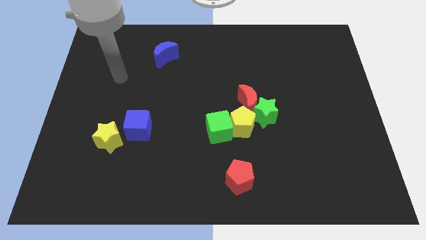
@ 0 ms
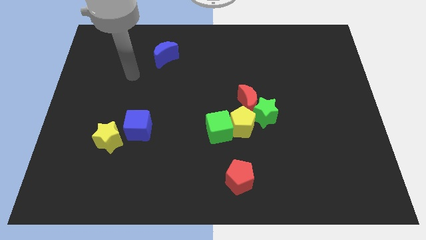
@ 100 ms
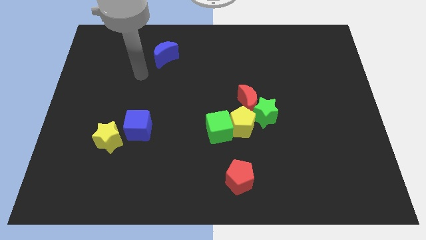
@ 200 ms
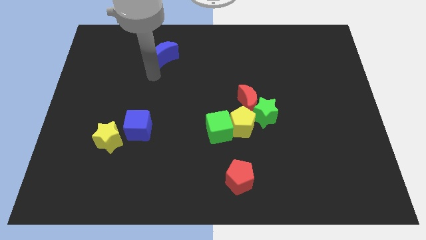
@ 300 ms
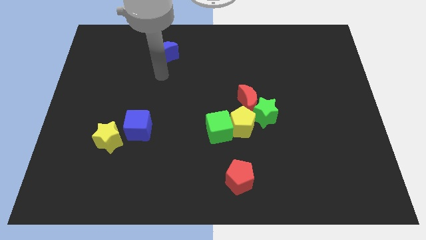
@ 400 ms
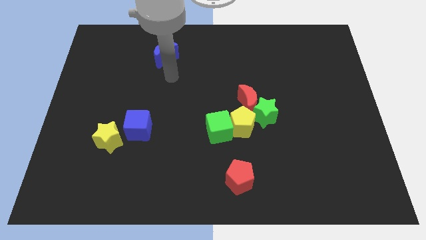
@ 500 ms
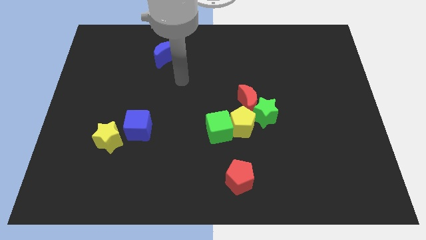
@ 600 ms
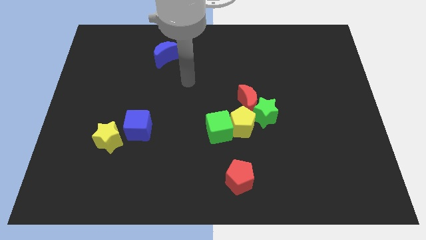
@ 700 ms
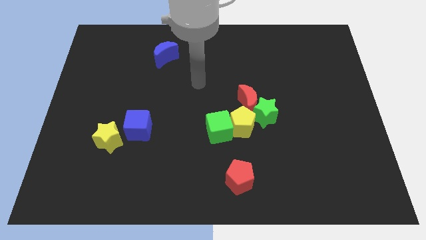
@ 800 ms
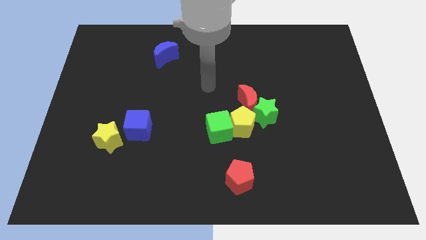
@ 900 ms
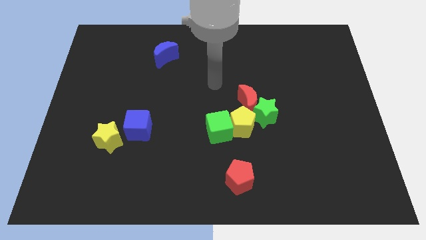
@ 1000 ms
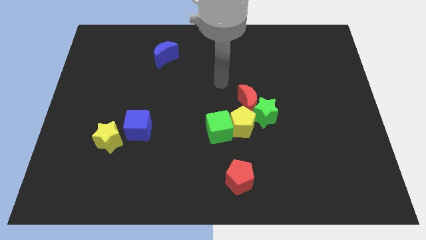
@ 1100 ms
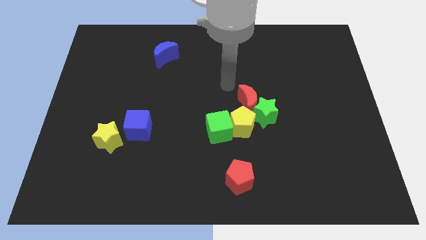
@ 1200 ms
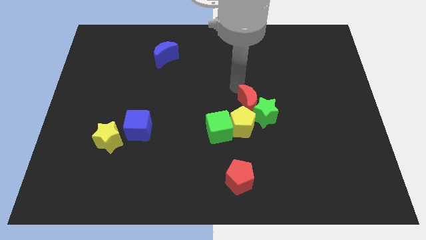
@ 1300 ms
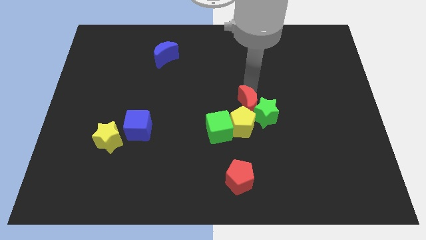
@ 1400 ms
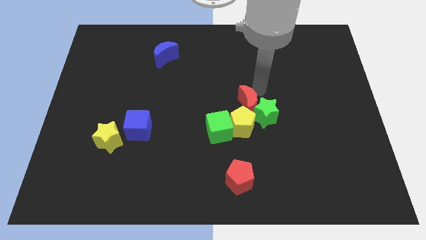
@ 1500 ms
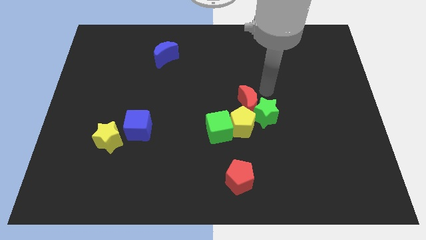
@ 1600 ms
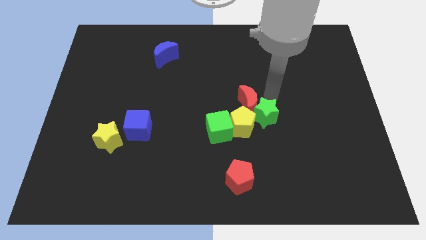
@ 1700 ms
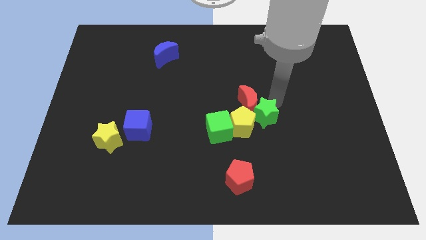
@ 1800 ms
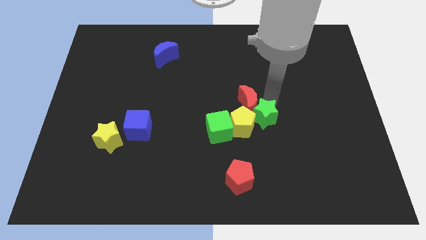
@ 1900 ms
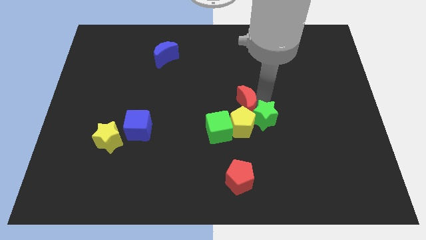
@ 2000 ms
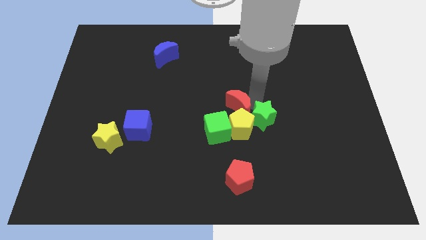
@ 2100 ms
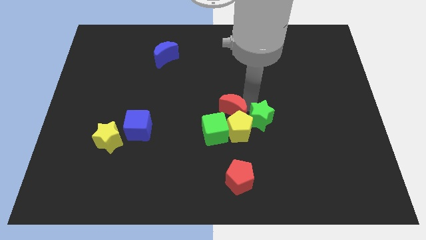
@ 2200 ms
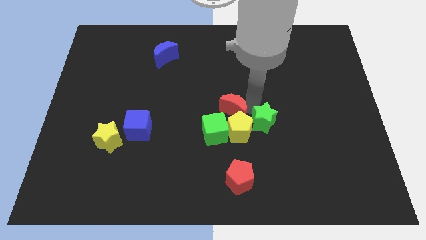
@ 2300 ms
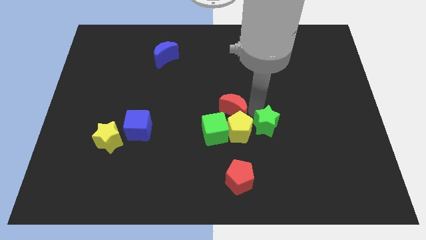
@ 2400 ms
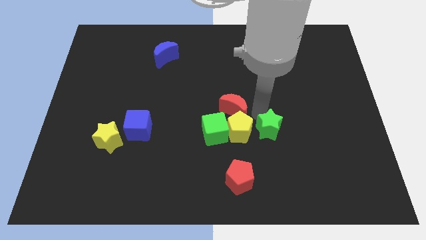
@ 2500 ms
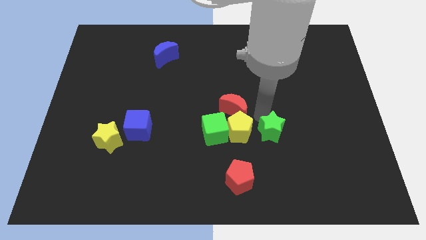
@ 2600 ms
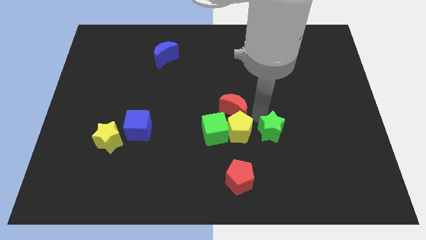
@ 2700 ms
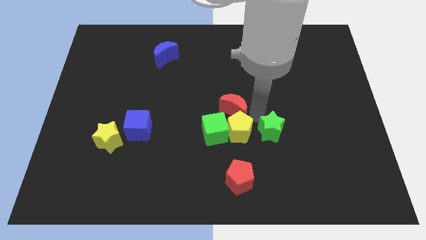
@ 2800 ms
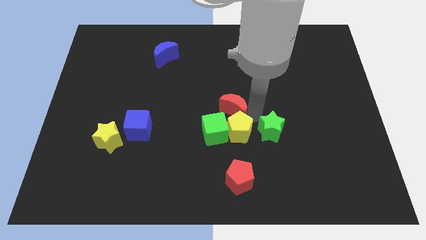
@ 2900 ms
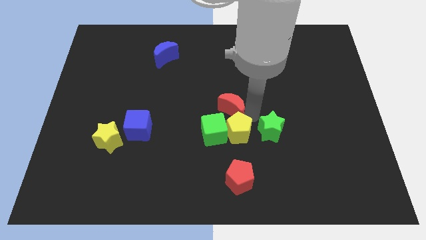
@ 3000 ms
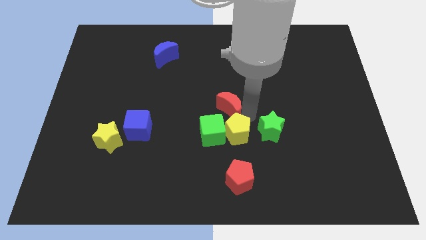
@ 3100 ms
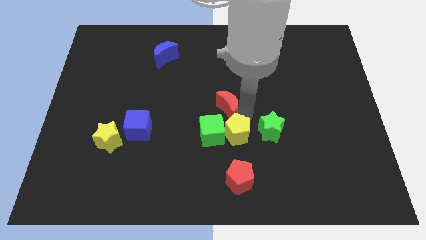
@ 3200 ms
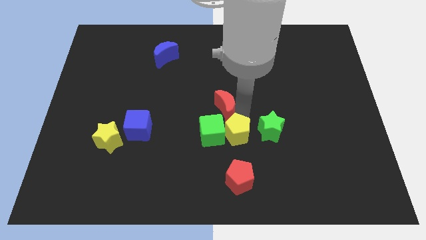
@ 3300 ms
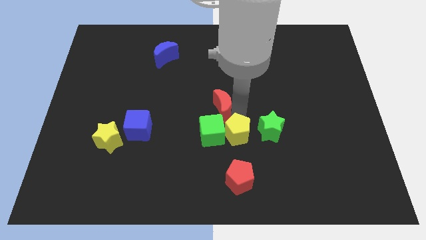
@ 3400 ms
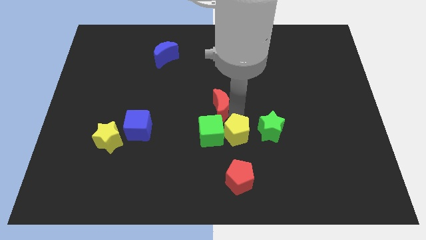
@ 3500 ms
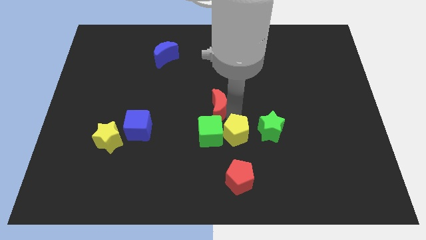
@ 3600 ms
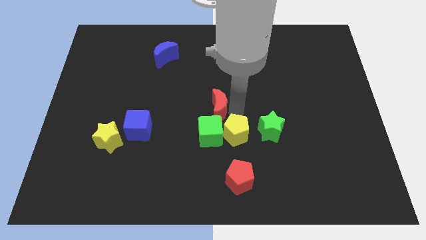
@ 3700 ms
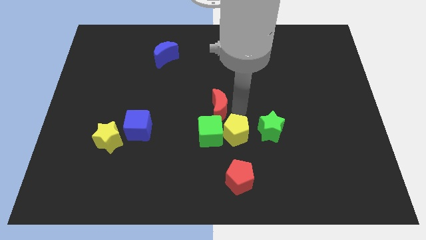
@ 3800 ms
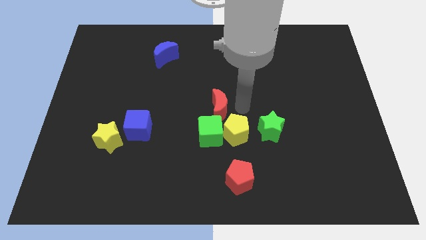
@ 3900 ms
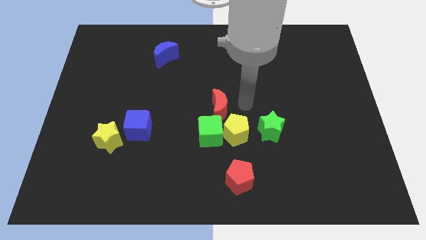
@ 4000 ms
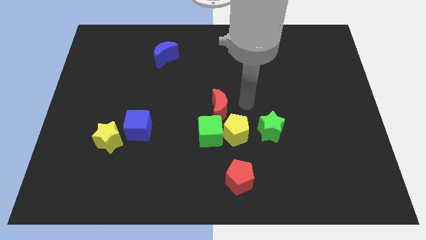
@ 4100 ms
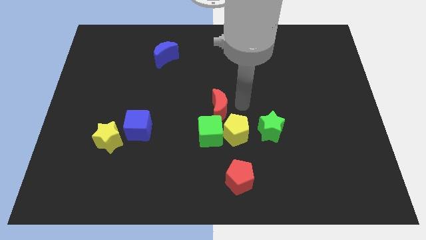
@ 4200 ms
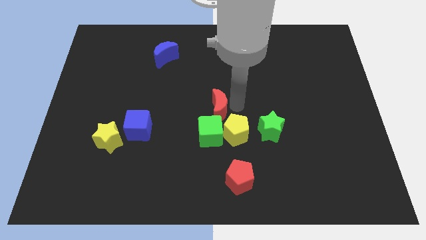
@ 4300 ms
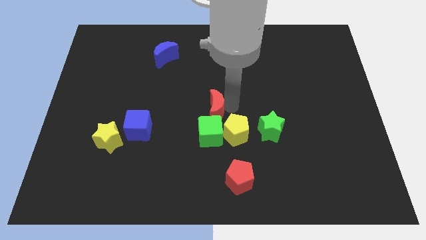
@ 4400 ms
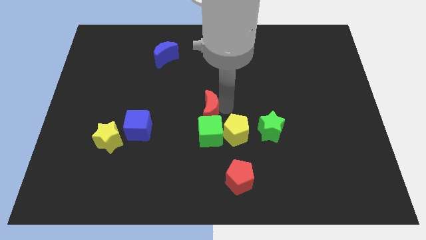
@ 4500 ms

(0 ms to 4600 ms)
slide the red moon slightly down and then left

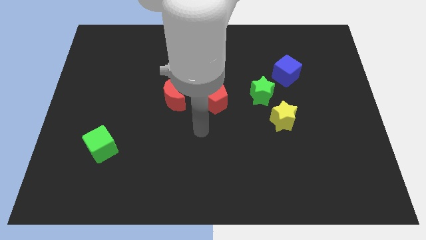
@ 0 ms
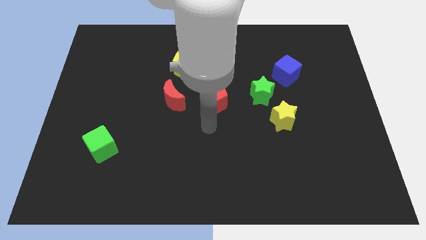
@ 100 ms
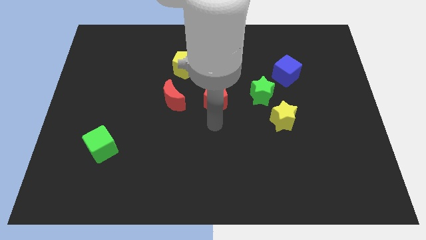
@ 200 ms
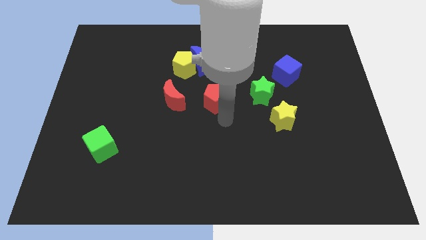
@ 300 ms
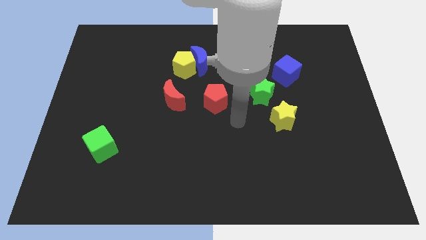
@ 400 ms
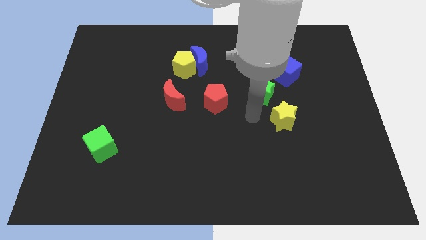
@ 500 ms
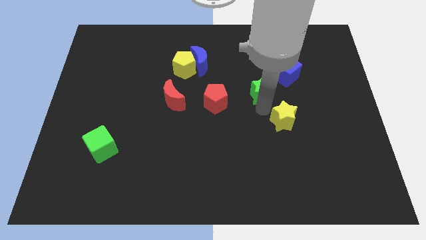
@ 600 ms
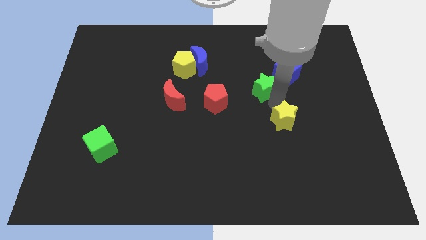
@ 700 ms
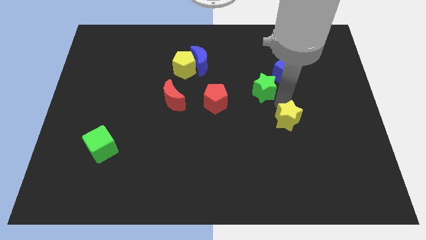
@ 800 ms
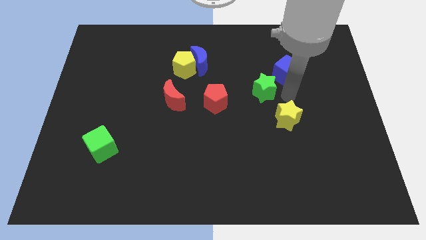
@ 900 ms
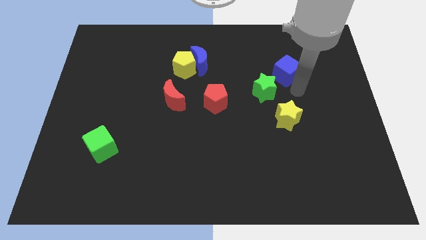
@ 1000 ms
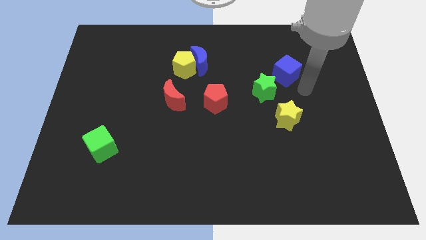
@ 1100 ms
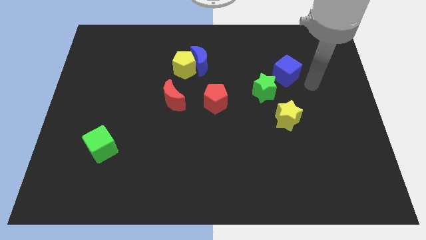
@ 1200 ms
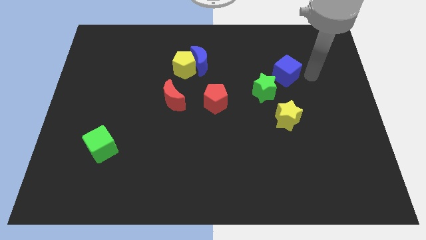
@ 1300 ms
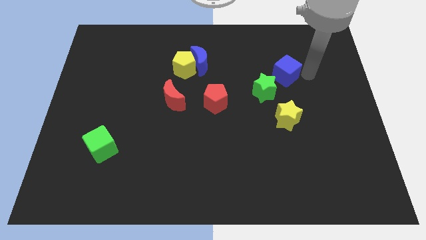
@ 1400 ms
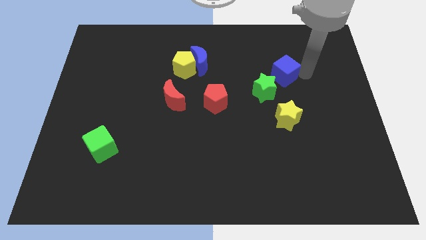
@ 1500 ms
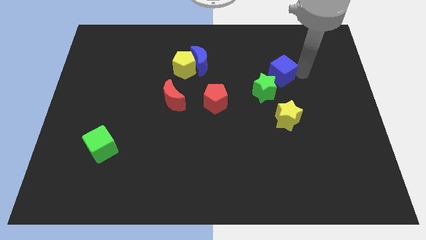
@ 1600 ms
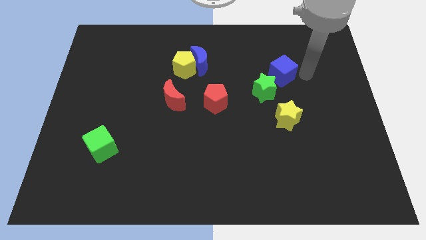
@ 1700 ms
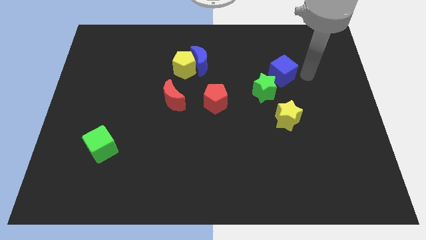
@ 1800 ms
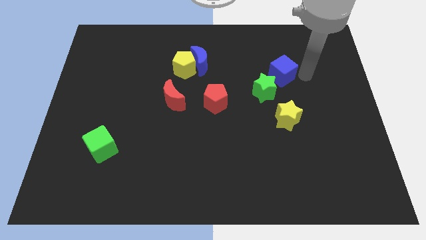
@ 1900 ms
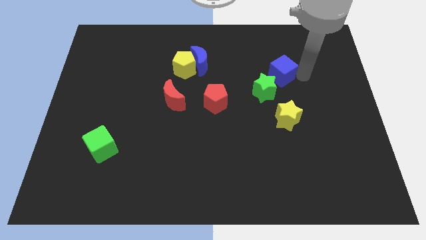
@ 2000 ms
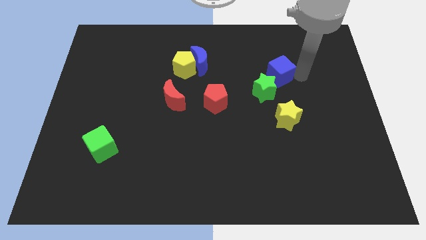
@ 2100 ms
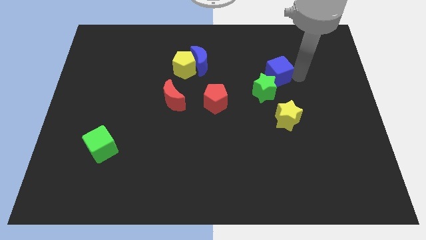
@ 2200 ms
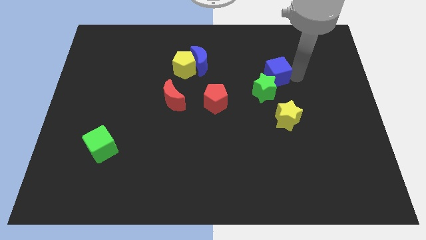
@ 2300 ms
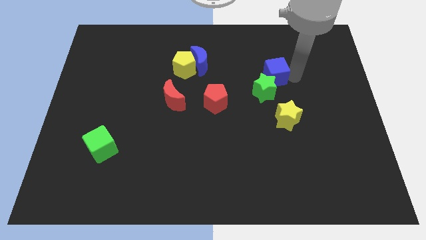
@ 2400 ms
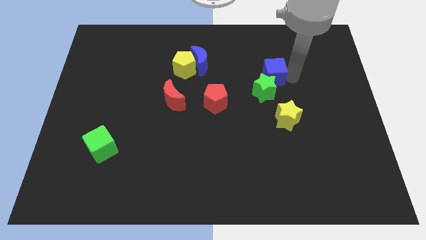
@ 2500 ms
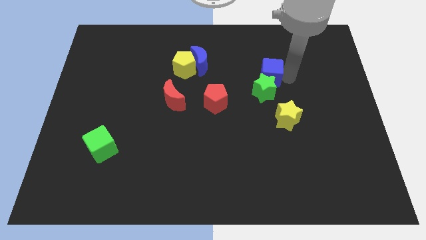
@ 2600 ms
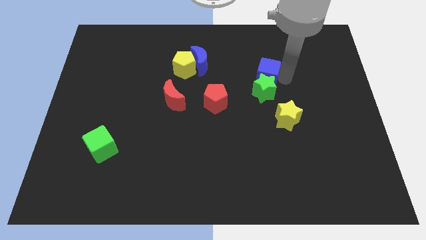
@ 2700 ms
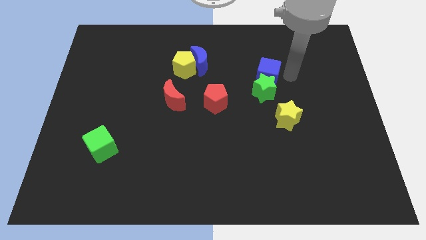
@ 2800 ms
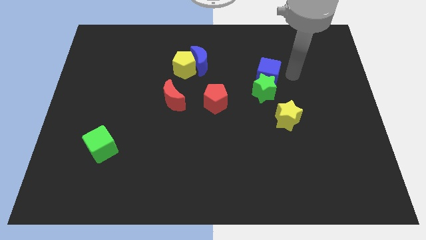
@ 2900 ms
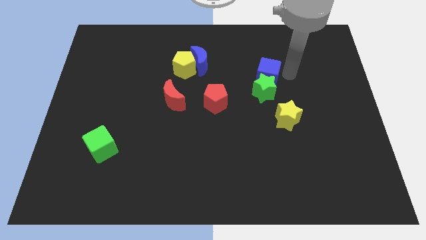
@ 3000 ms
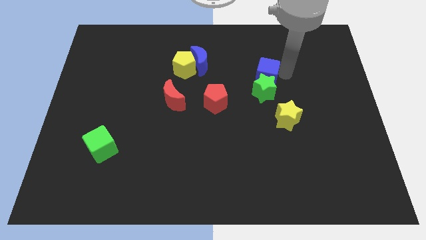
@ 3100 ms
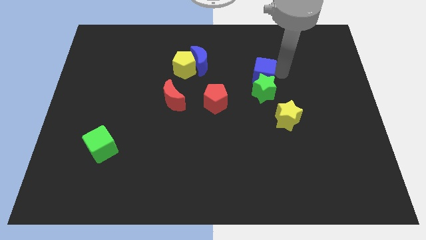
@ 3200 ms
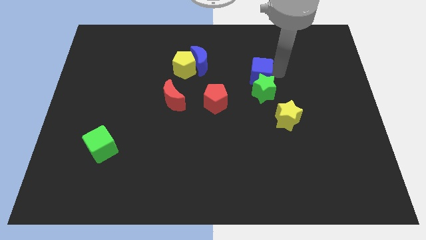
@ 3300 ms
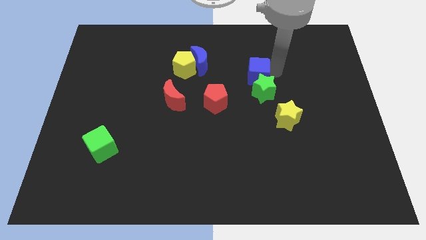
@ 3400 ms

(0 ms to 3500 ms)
push the blue cube somewhat to the left
